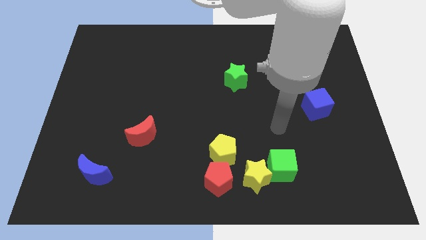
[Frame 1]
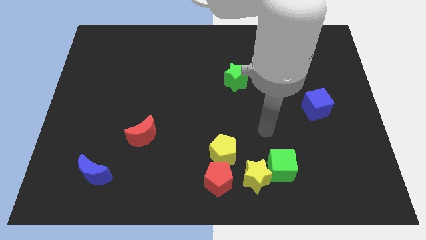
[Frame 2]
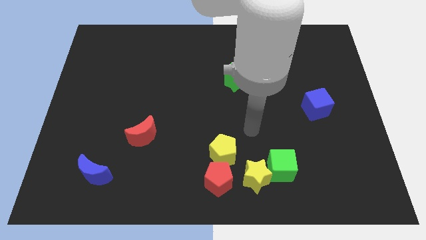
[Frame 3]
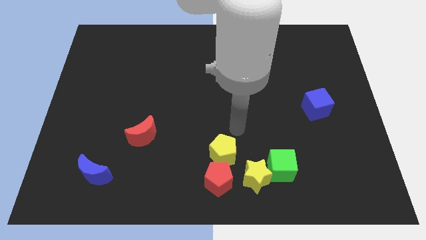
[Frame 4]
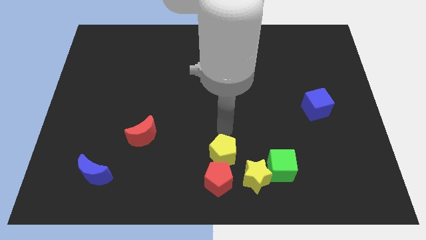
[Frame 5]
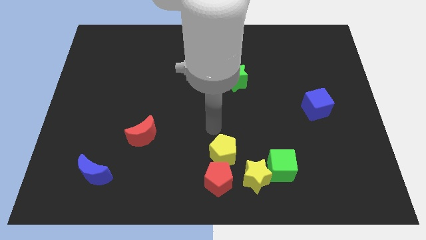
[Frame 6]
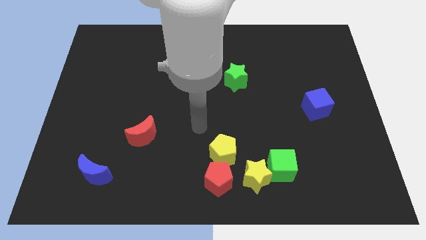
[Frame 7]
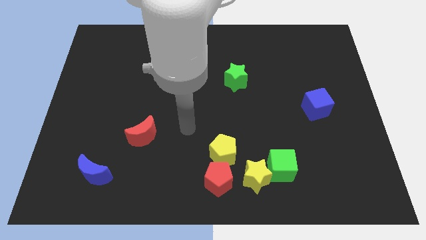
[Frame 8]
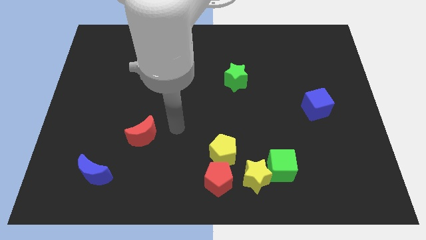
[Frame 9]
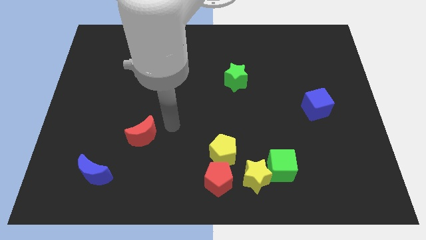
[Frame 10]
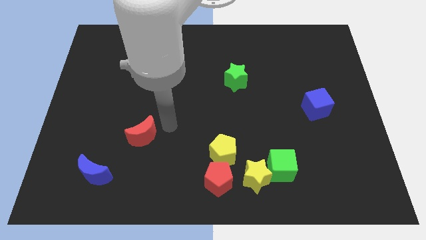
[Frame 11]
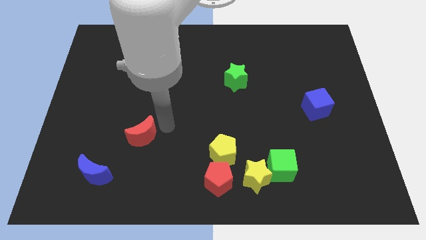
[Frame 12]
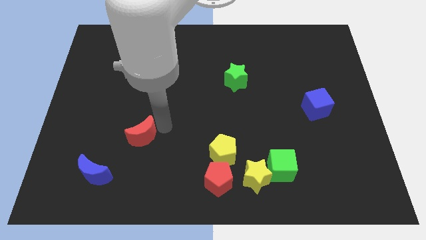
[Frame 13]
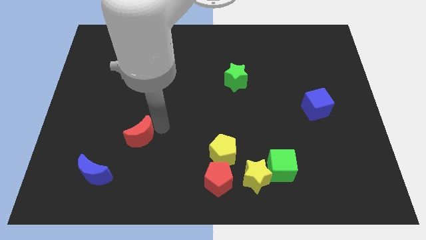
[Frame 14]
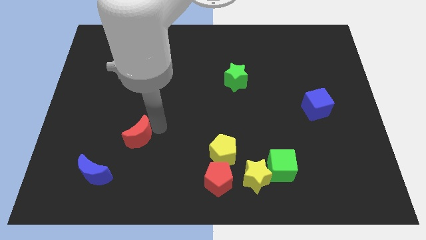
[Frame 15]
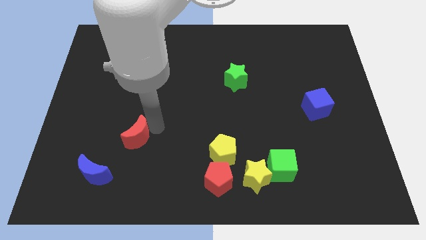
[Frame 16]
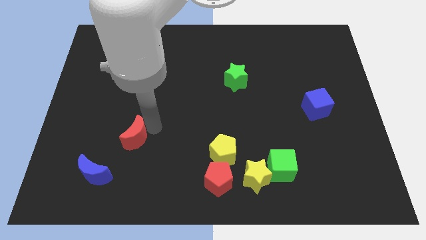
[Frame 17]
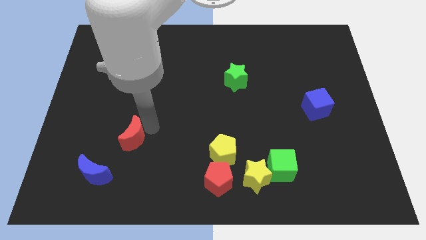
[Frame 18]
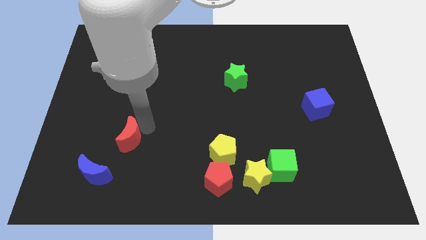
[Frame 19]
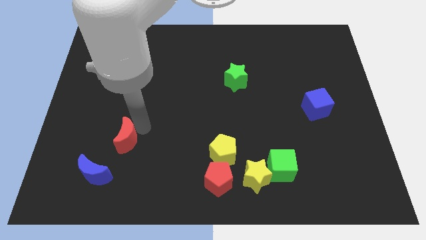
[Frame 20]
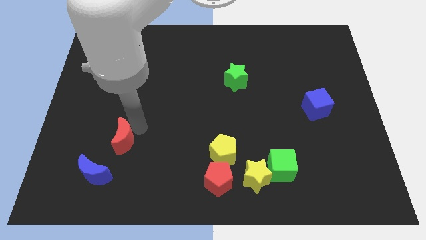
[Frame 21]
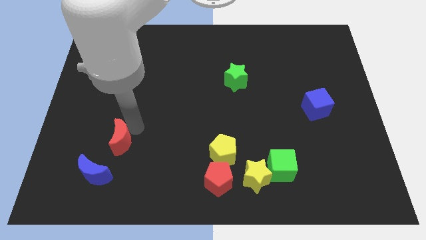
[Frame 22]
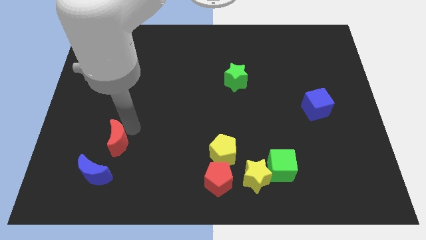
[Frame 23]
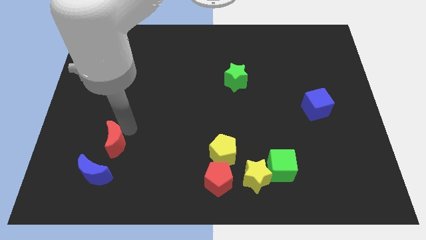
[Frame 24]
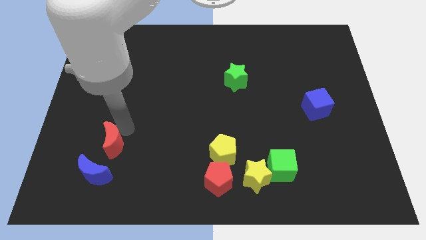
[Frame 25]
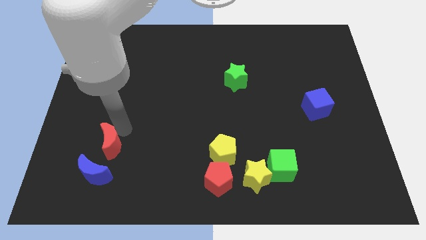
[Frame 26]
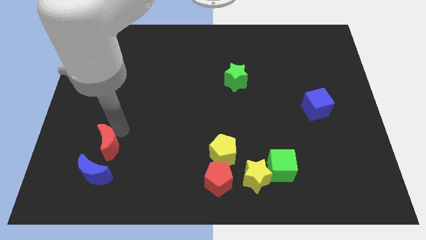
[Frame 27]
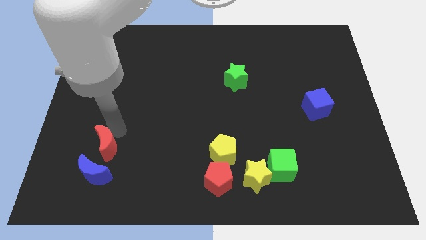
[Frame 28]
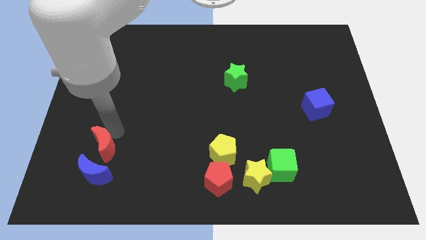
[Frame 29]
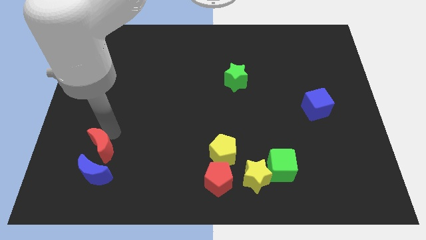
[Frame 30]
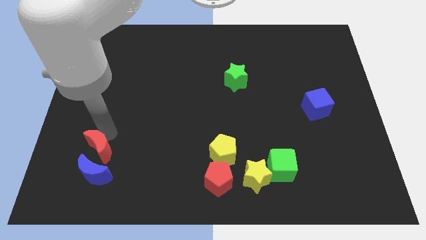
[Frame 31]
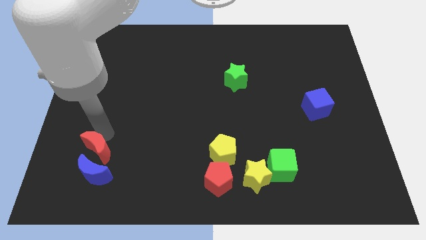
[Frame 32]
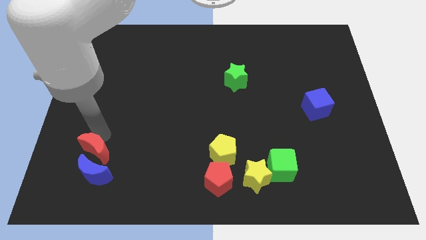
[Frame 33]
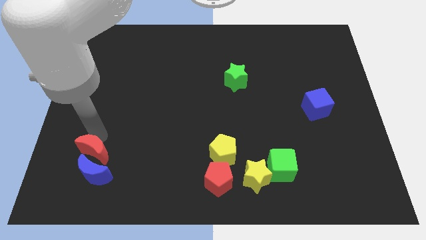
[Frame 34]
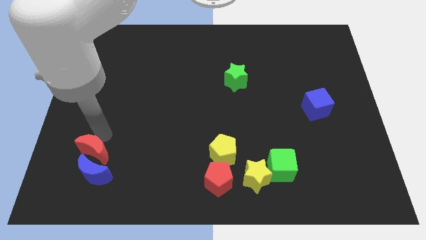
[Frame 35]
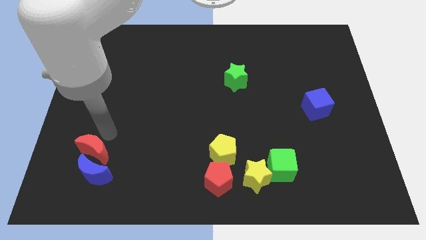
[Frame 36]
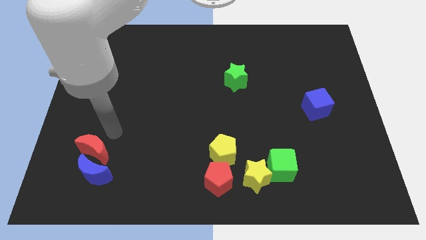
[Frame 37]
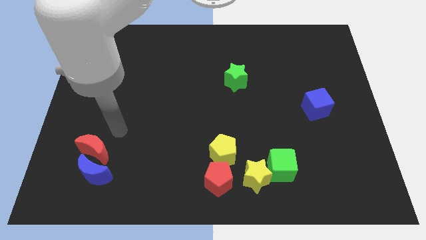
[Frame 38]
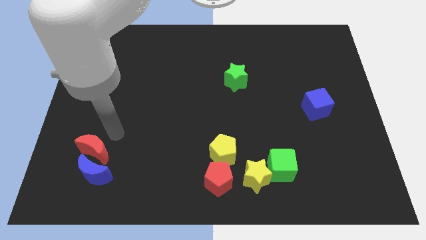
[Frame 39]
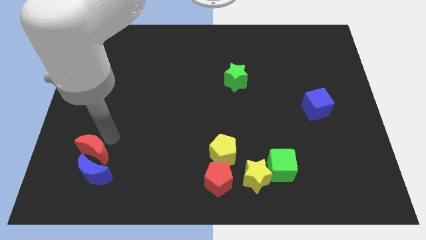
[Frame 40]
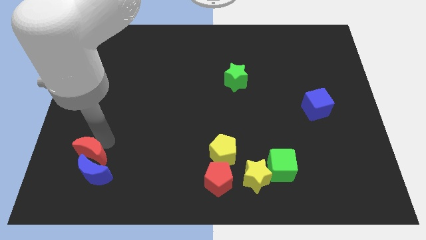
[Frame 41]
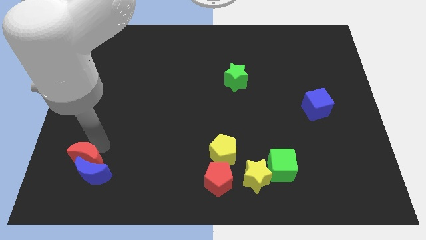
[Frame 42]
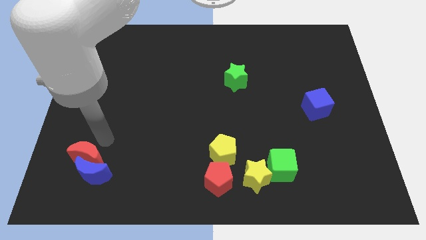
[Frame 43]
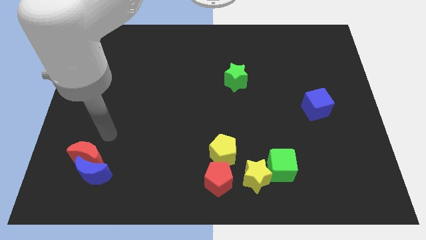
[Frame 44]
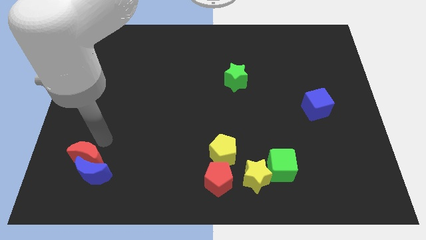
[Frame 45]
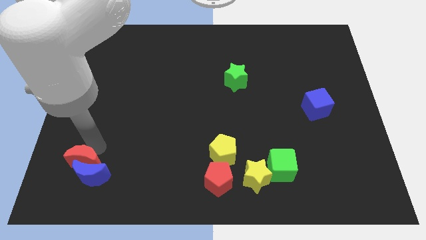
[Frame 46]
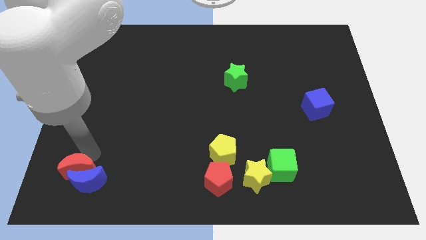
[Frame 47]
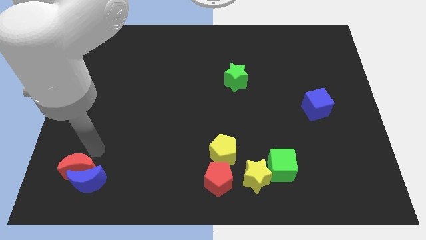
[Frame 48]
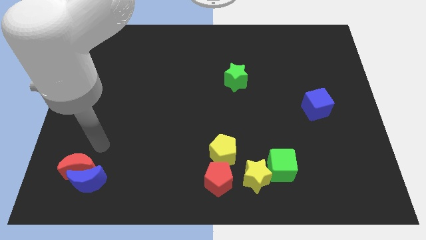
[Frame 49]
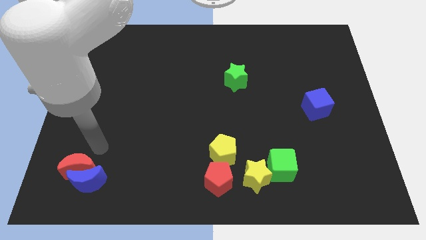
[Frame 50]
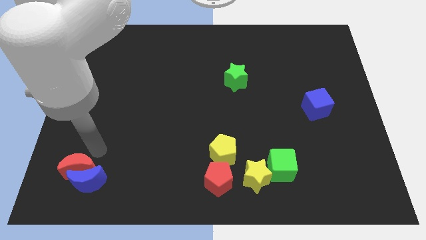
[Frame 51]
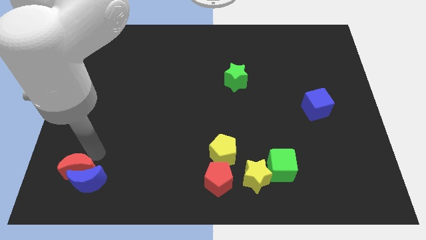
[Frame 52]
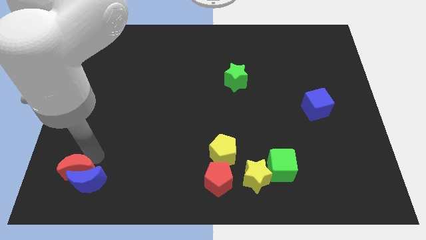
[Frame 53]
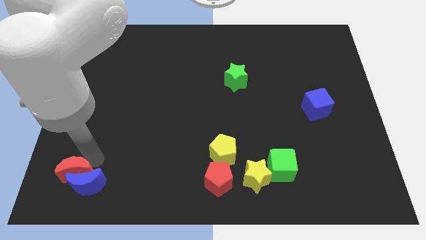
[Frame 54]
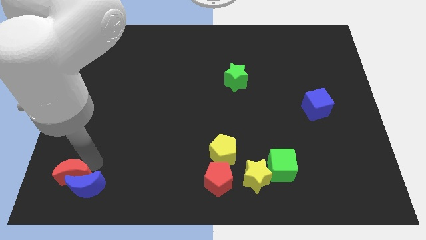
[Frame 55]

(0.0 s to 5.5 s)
push the red moon to the bottom left

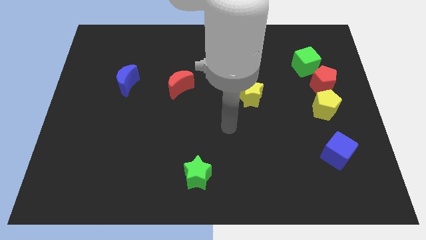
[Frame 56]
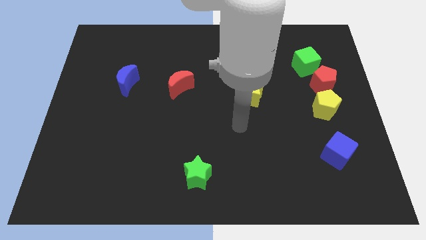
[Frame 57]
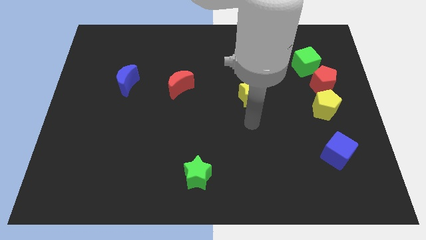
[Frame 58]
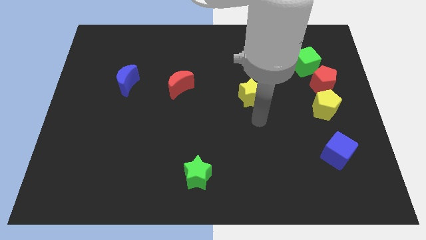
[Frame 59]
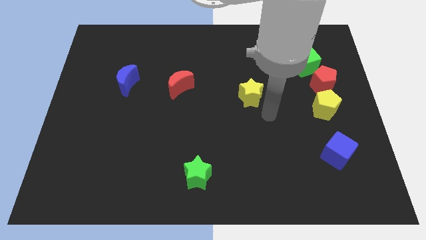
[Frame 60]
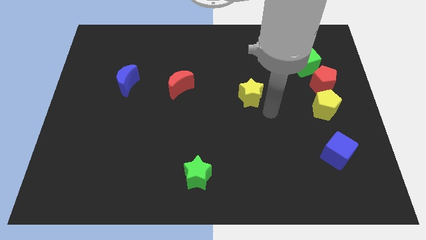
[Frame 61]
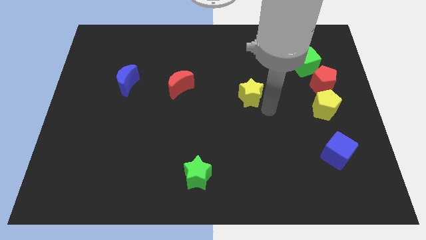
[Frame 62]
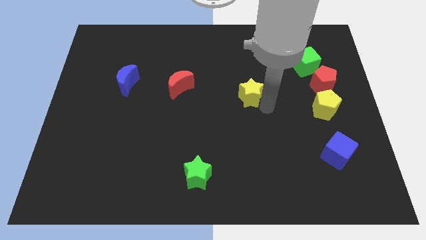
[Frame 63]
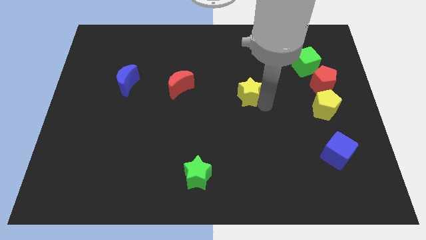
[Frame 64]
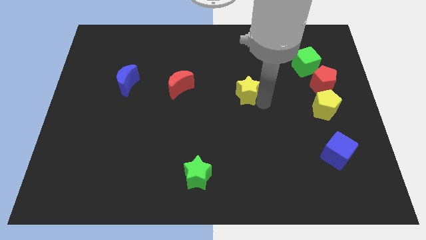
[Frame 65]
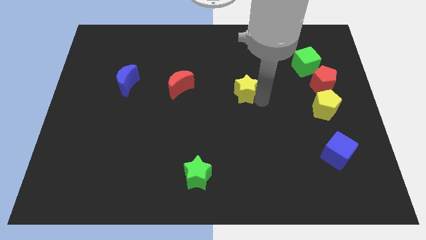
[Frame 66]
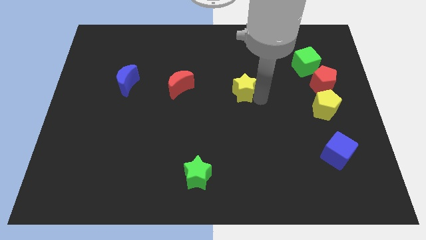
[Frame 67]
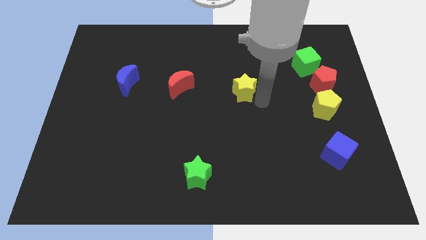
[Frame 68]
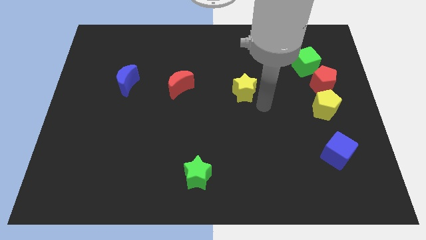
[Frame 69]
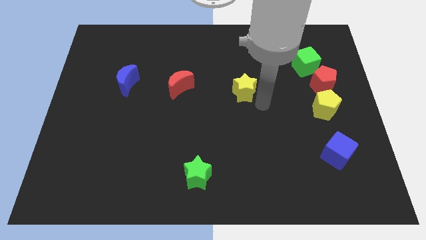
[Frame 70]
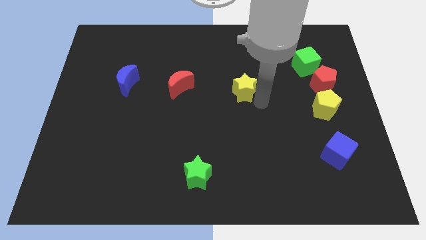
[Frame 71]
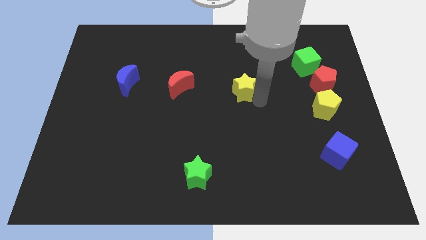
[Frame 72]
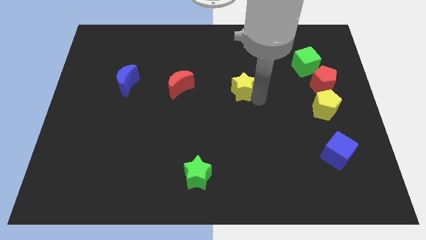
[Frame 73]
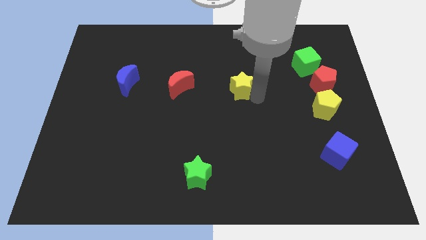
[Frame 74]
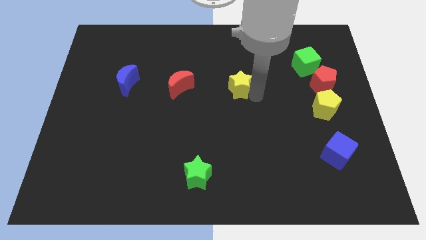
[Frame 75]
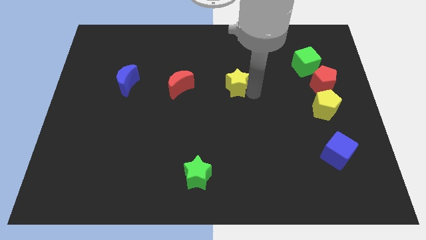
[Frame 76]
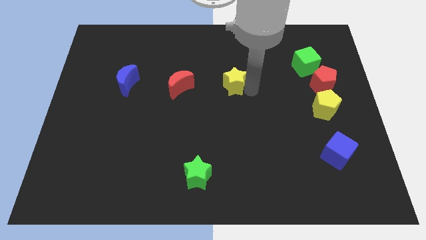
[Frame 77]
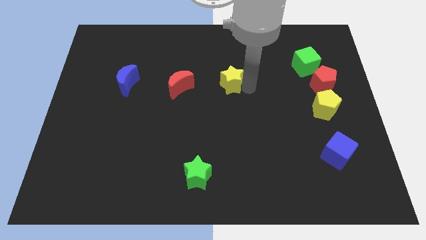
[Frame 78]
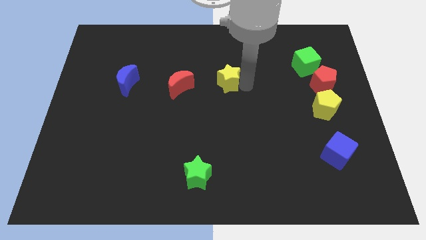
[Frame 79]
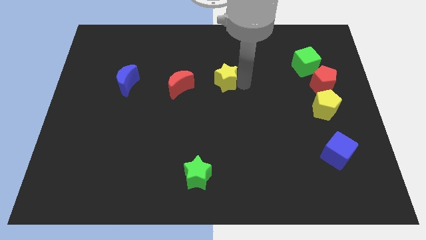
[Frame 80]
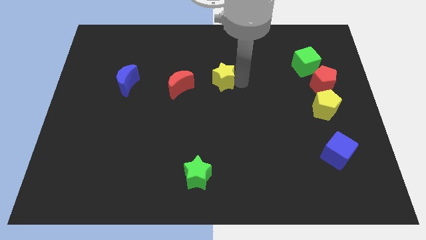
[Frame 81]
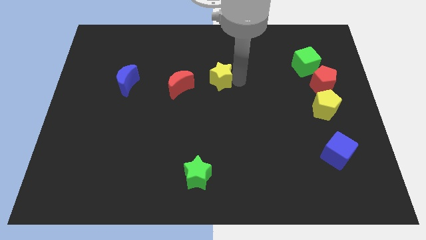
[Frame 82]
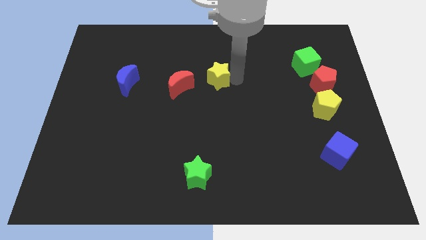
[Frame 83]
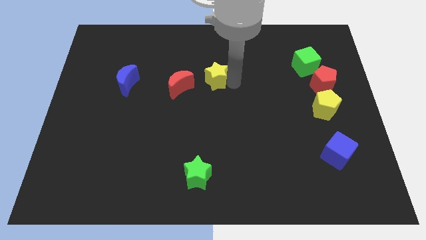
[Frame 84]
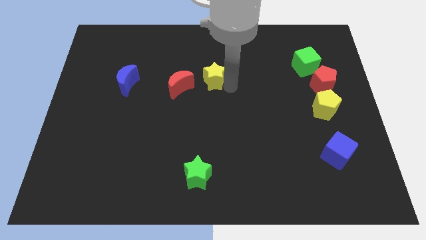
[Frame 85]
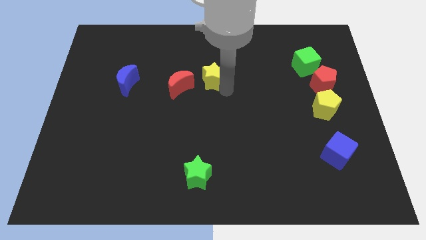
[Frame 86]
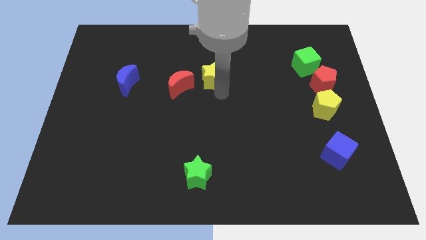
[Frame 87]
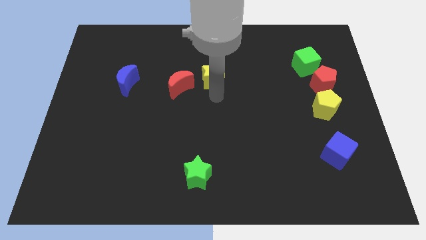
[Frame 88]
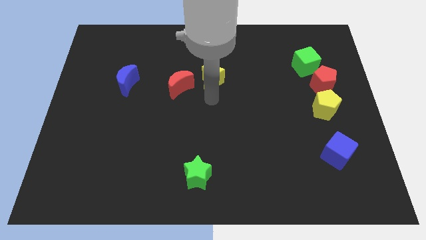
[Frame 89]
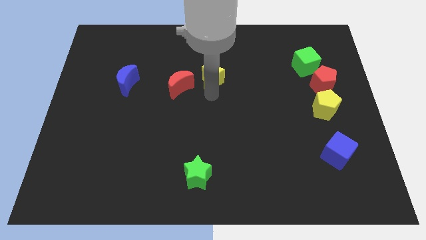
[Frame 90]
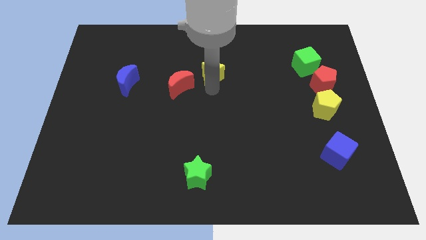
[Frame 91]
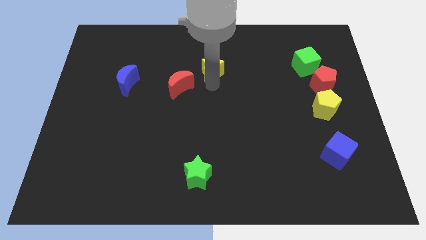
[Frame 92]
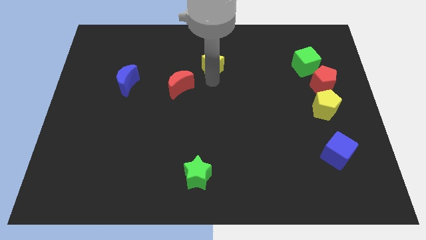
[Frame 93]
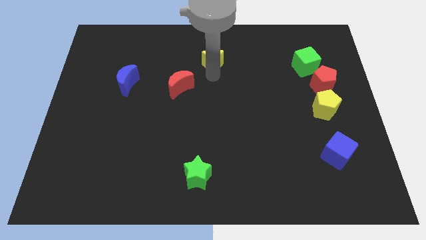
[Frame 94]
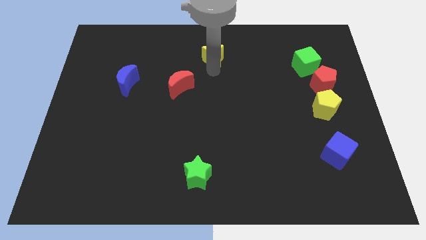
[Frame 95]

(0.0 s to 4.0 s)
slide the yellow star to the top
